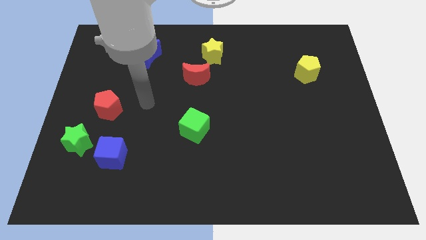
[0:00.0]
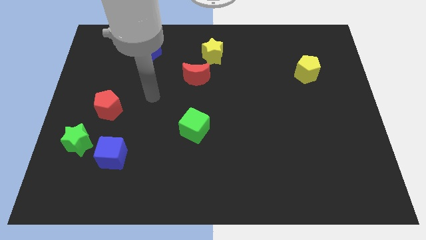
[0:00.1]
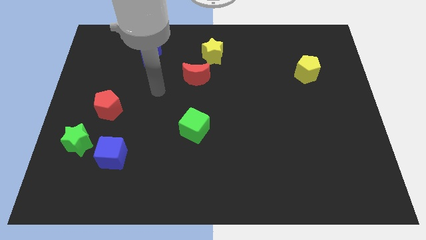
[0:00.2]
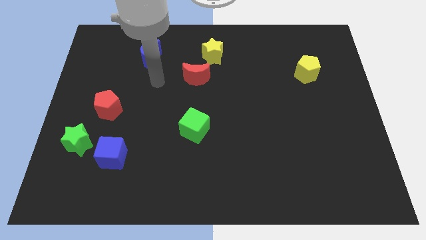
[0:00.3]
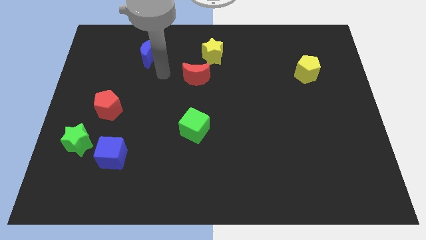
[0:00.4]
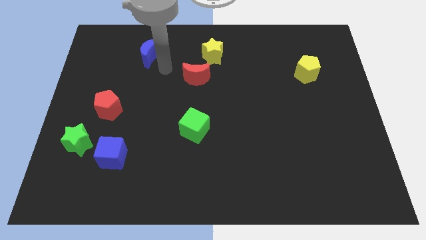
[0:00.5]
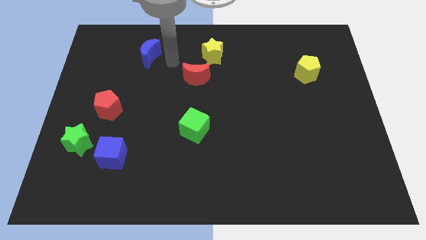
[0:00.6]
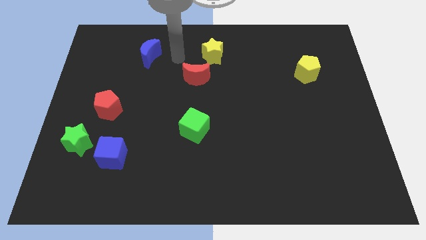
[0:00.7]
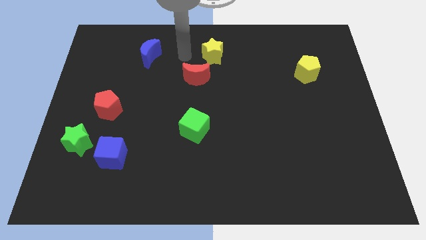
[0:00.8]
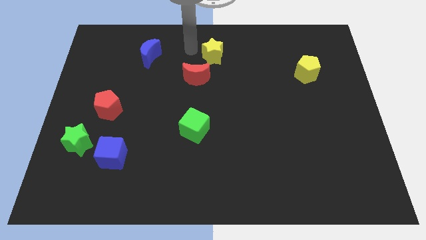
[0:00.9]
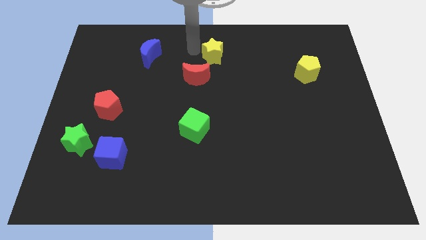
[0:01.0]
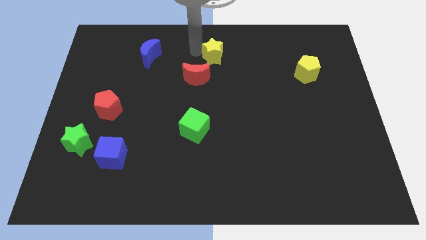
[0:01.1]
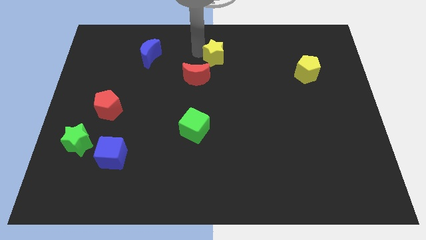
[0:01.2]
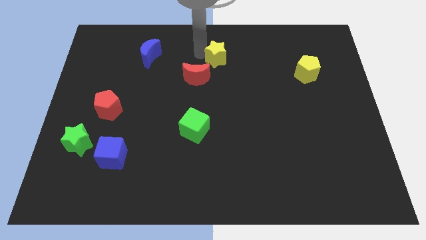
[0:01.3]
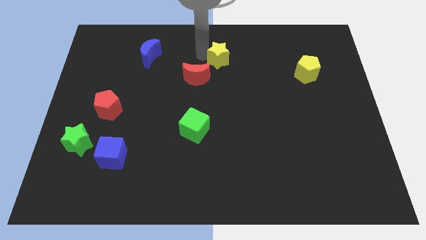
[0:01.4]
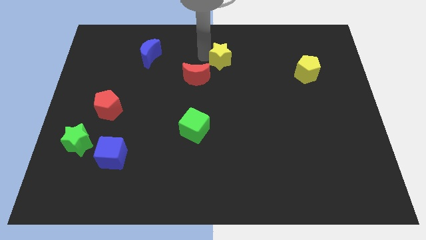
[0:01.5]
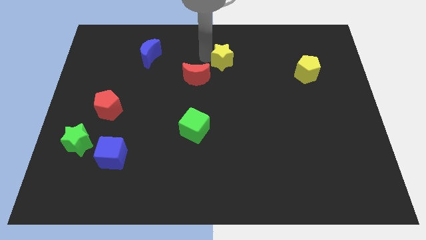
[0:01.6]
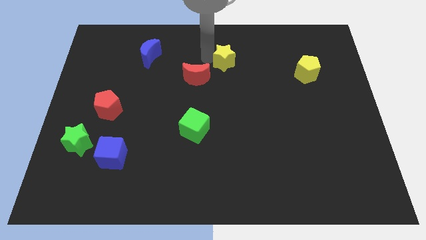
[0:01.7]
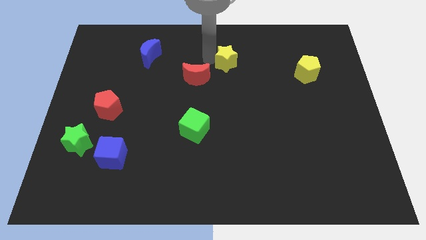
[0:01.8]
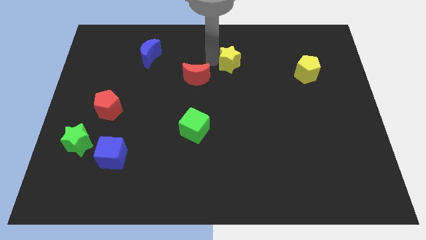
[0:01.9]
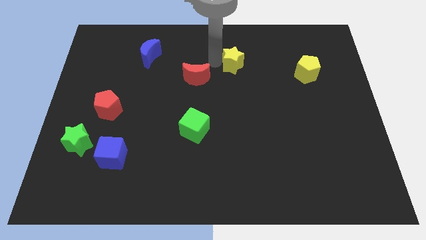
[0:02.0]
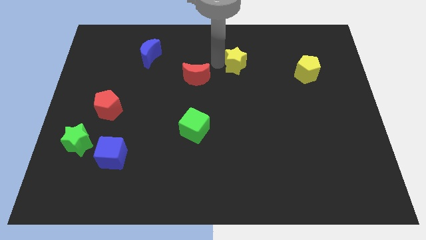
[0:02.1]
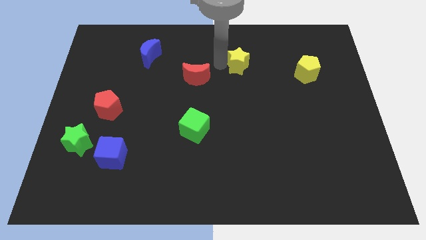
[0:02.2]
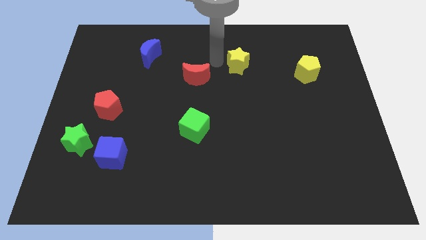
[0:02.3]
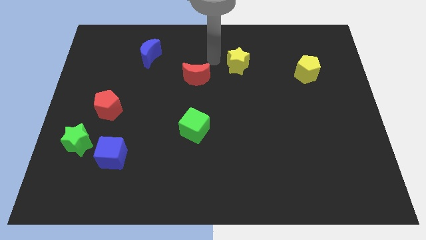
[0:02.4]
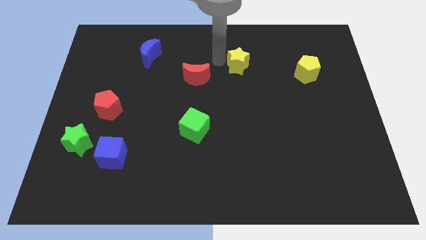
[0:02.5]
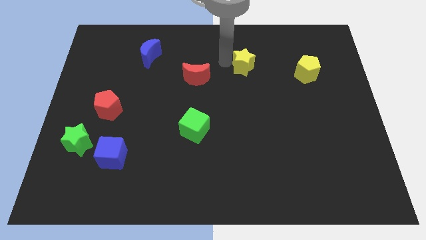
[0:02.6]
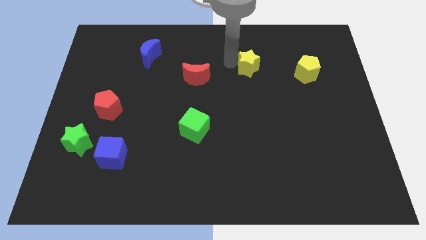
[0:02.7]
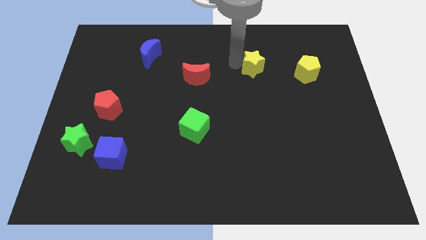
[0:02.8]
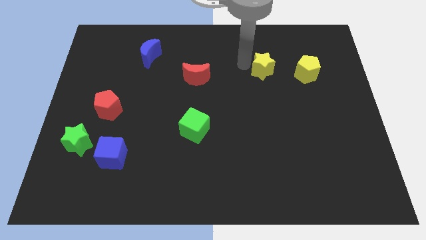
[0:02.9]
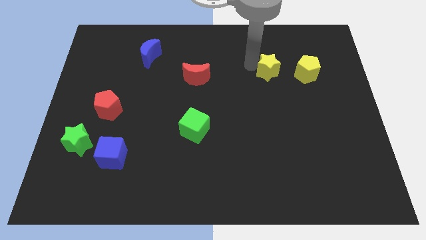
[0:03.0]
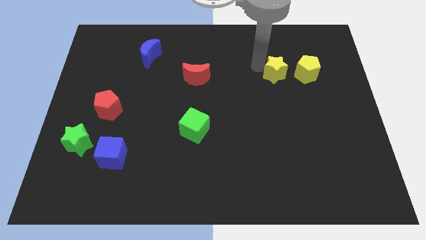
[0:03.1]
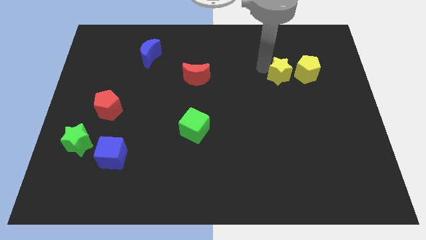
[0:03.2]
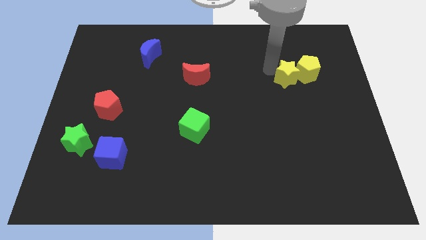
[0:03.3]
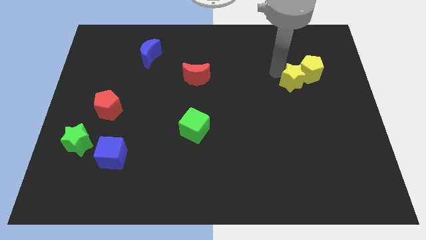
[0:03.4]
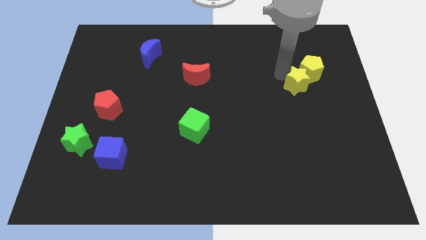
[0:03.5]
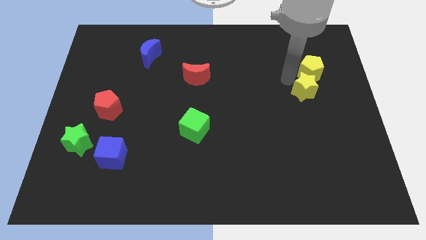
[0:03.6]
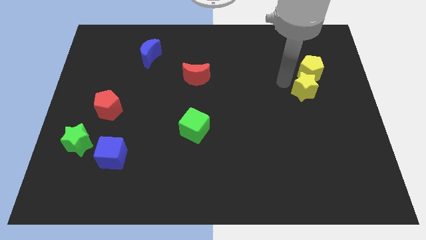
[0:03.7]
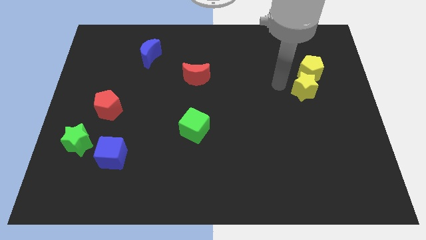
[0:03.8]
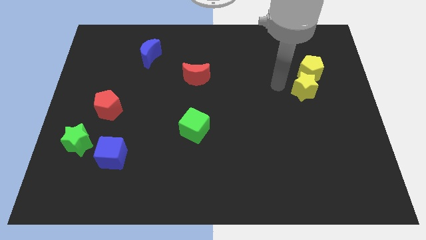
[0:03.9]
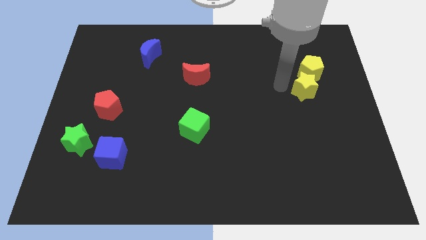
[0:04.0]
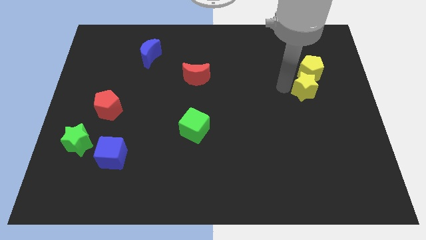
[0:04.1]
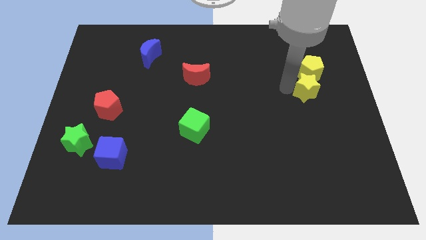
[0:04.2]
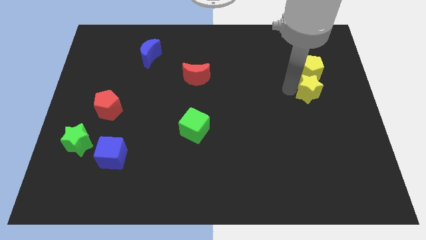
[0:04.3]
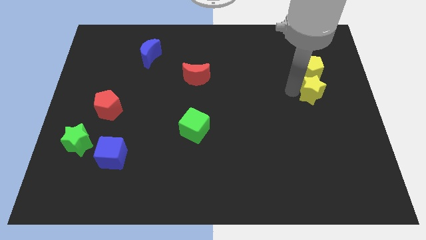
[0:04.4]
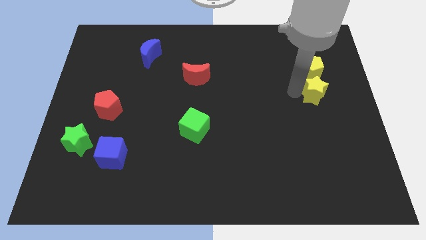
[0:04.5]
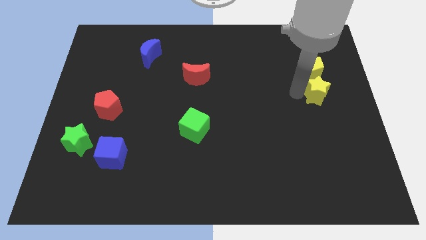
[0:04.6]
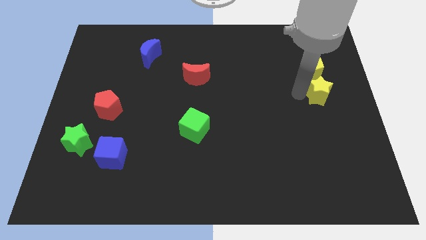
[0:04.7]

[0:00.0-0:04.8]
move the yellow star to the center right

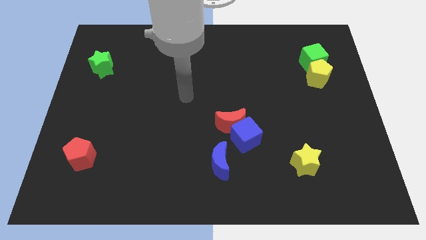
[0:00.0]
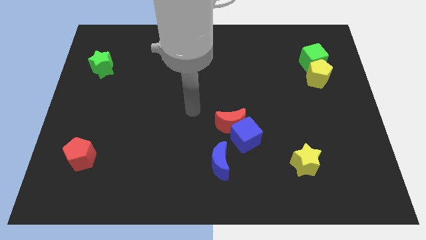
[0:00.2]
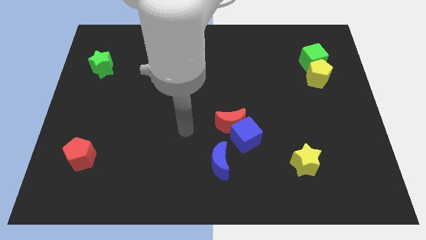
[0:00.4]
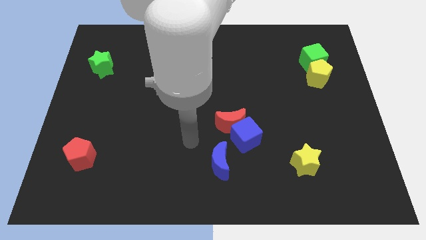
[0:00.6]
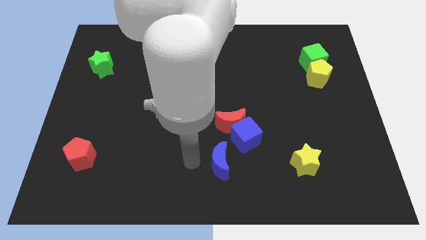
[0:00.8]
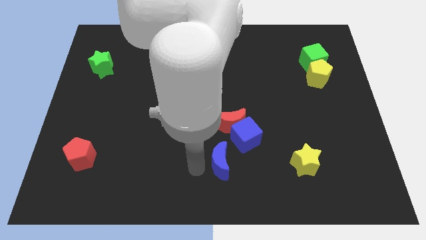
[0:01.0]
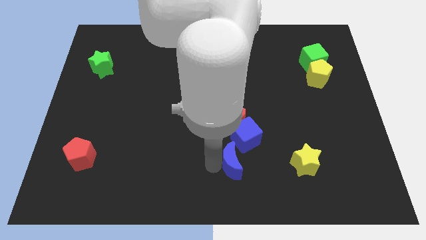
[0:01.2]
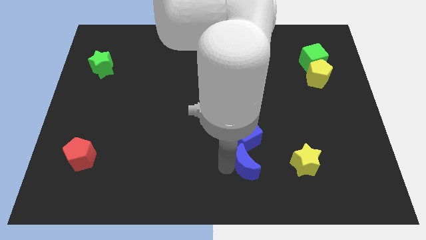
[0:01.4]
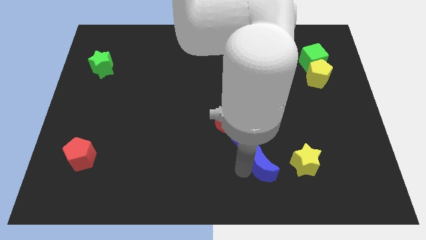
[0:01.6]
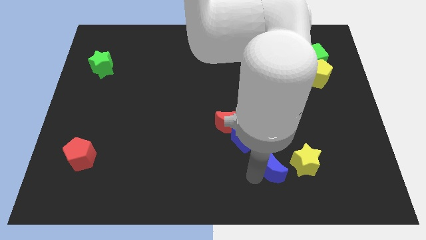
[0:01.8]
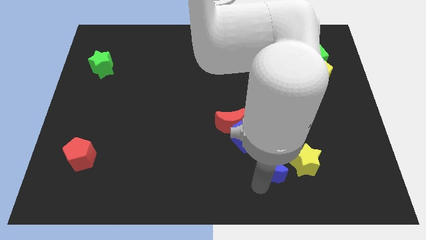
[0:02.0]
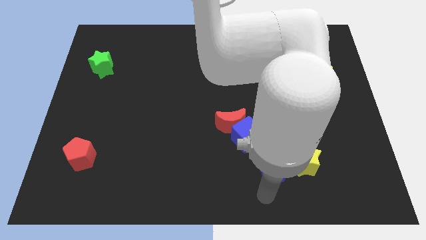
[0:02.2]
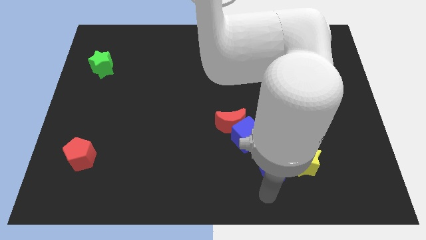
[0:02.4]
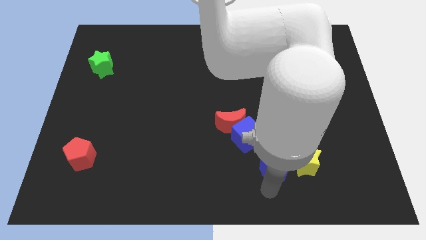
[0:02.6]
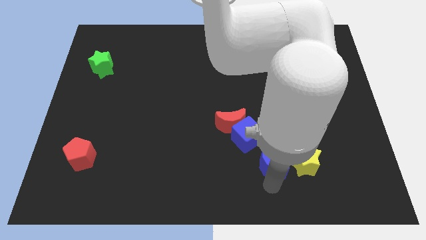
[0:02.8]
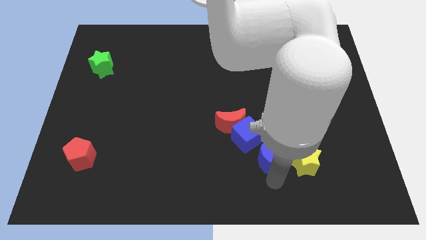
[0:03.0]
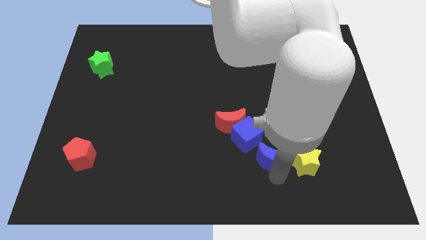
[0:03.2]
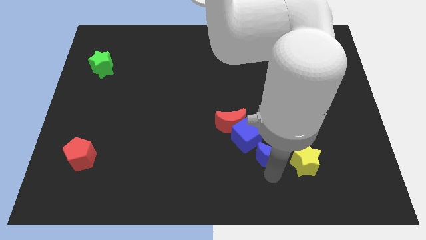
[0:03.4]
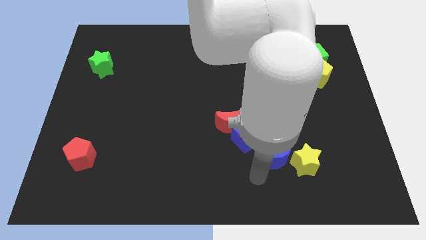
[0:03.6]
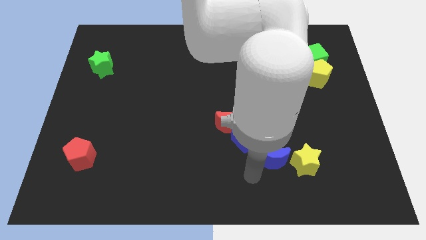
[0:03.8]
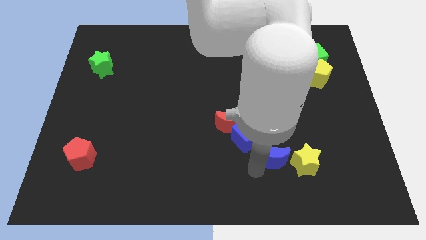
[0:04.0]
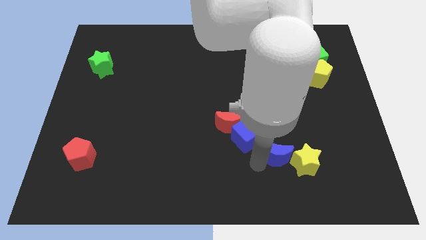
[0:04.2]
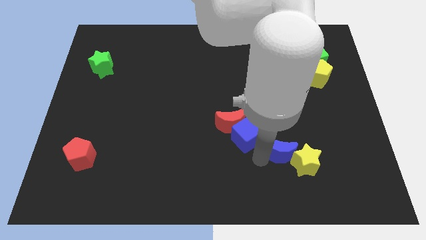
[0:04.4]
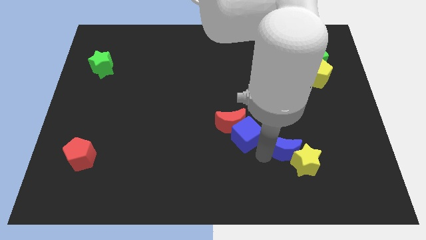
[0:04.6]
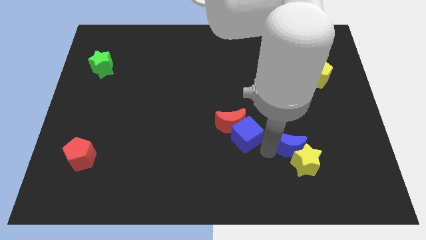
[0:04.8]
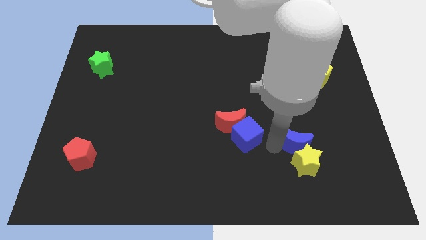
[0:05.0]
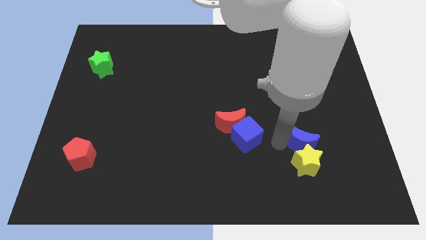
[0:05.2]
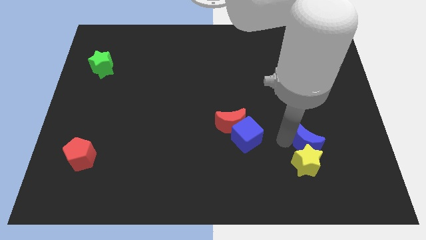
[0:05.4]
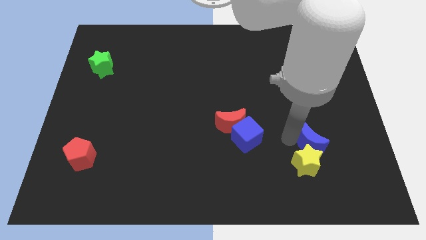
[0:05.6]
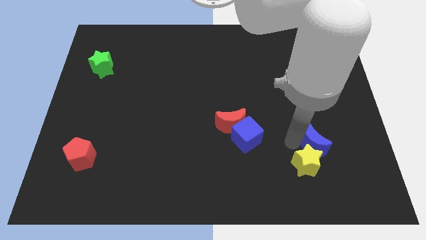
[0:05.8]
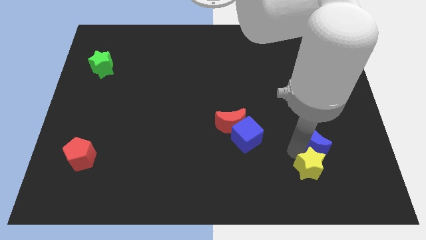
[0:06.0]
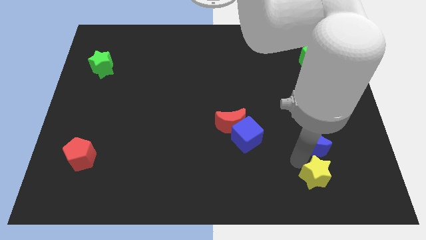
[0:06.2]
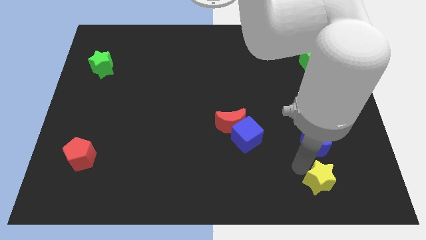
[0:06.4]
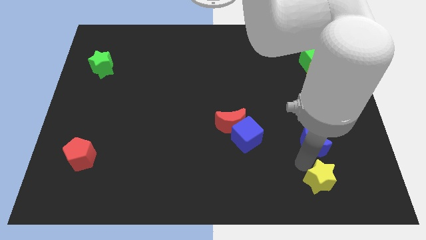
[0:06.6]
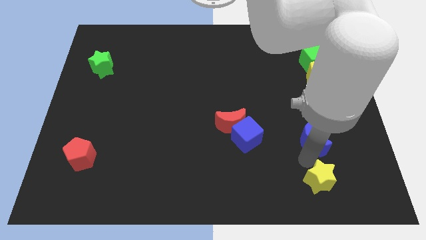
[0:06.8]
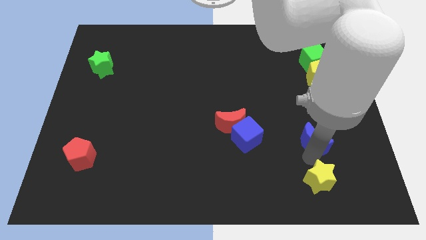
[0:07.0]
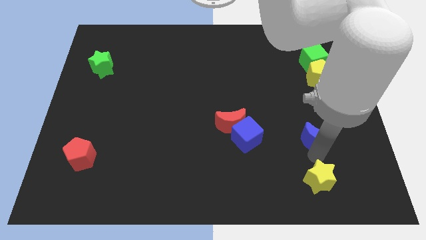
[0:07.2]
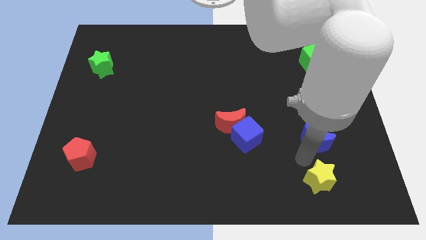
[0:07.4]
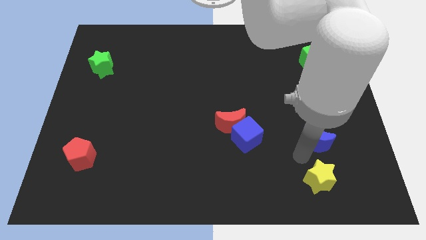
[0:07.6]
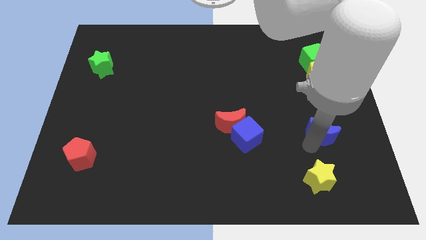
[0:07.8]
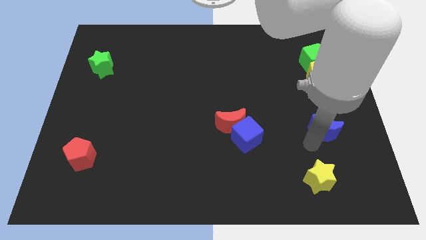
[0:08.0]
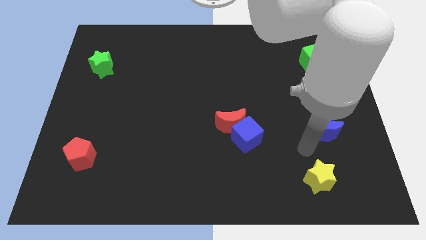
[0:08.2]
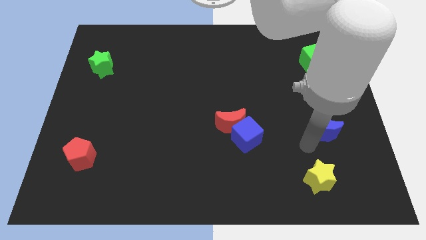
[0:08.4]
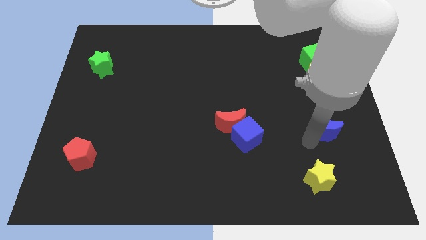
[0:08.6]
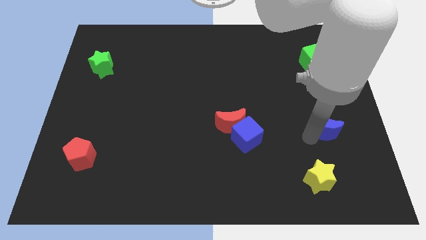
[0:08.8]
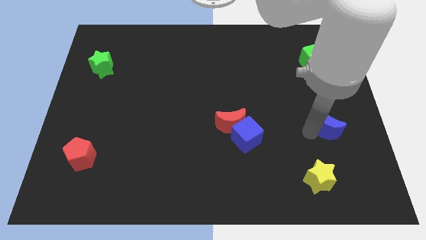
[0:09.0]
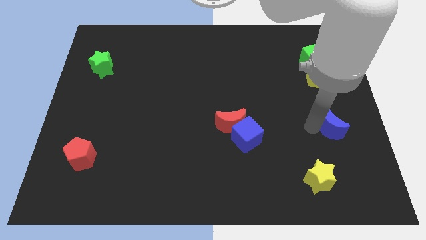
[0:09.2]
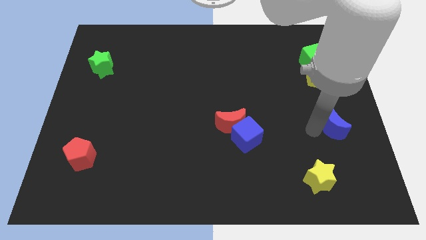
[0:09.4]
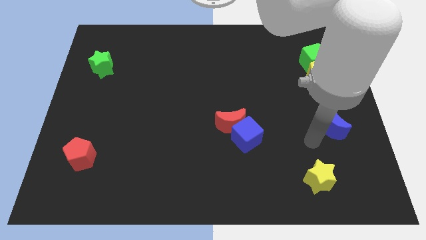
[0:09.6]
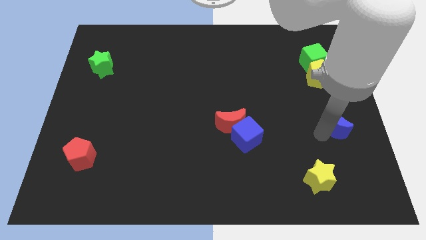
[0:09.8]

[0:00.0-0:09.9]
move the blue moon to the center right
